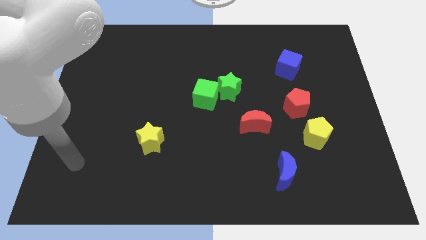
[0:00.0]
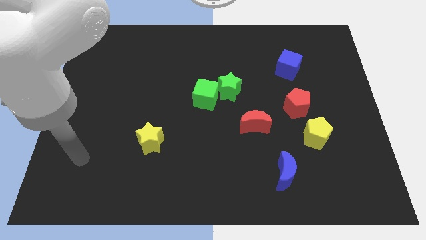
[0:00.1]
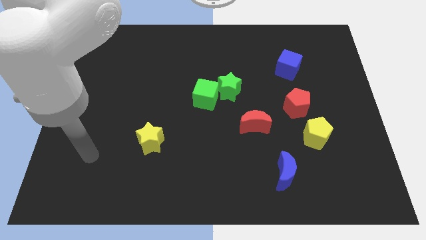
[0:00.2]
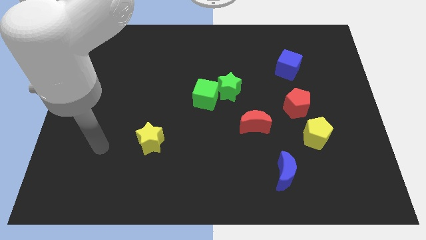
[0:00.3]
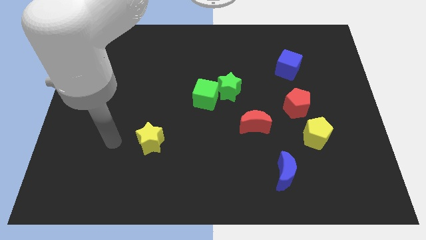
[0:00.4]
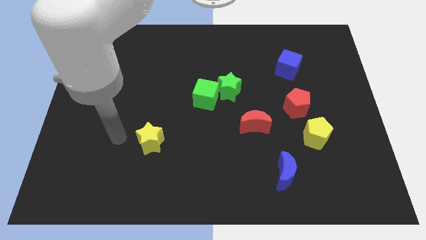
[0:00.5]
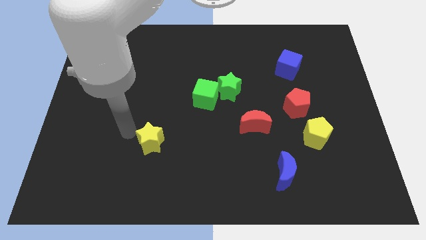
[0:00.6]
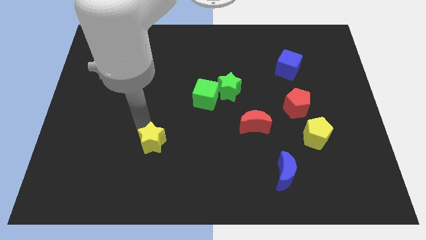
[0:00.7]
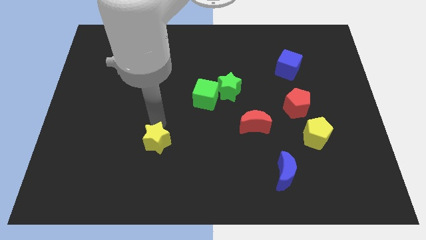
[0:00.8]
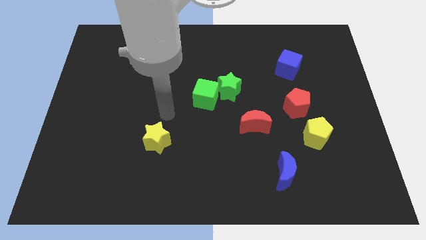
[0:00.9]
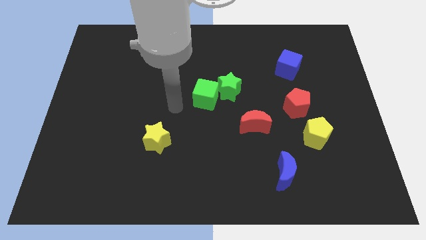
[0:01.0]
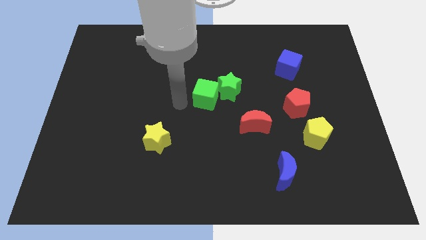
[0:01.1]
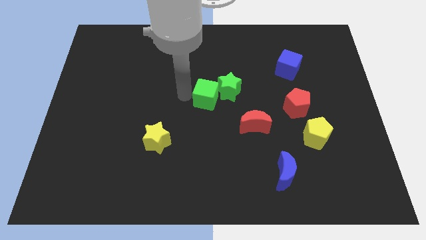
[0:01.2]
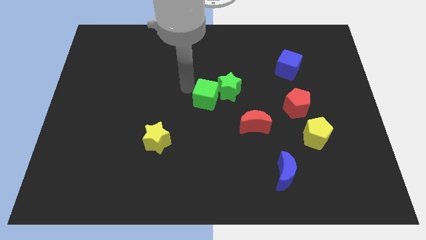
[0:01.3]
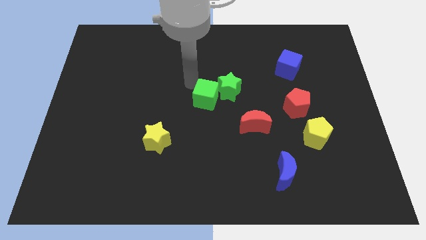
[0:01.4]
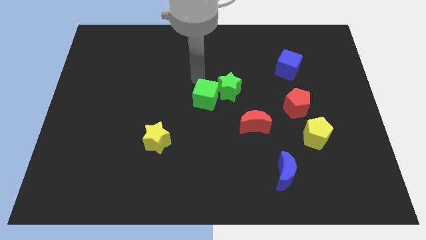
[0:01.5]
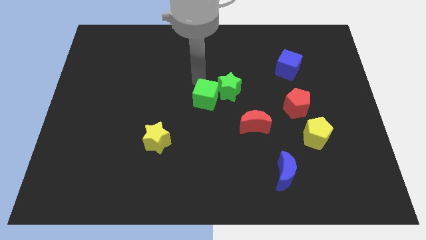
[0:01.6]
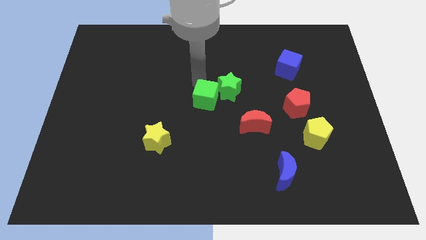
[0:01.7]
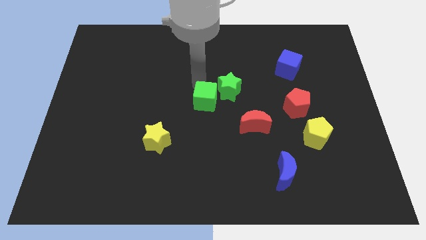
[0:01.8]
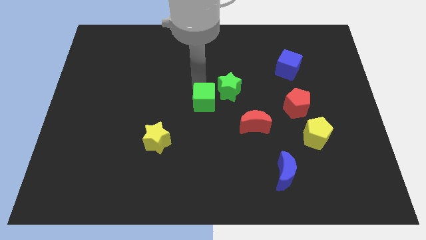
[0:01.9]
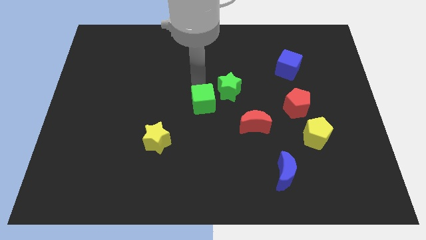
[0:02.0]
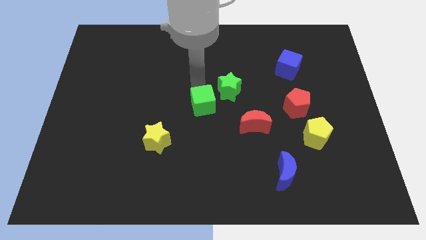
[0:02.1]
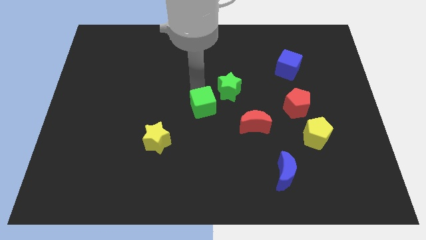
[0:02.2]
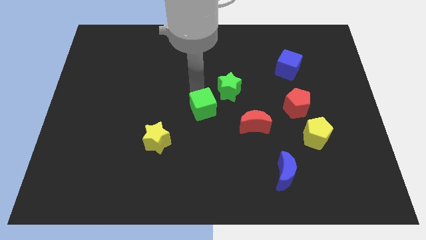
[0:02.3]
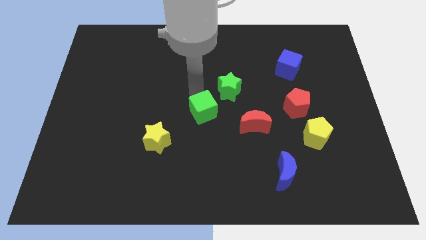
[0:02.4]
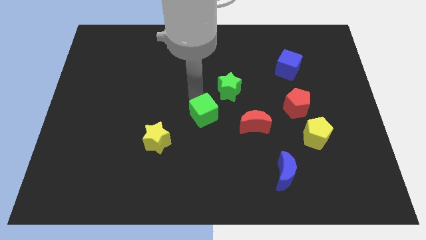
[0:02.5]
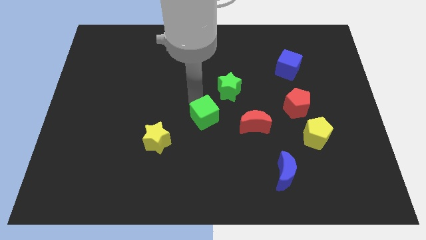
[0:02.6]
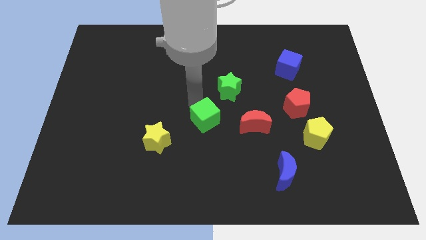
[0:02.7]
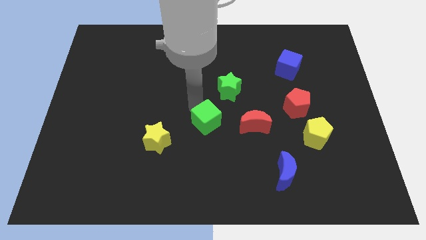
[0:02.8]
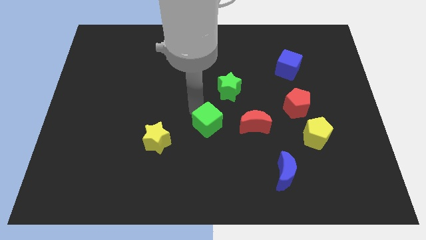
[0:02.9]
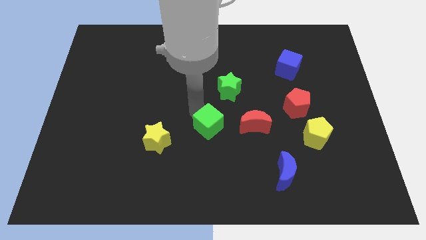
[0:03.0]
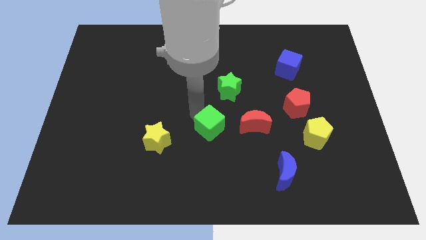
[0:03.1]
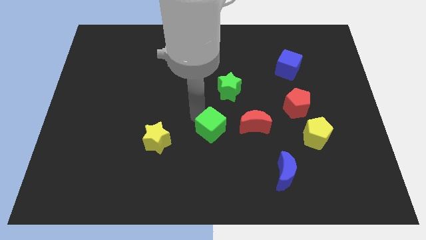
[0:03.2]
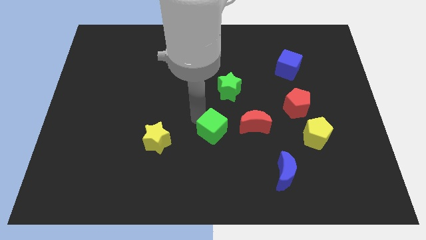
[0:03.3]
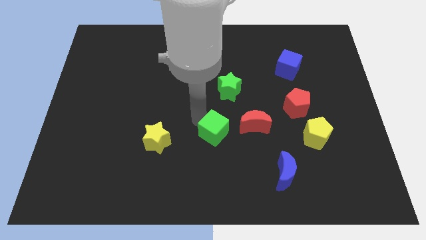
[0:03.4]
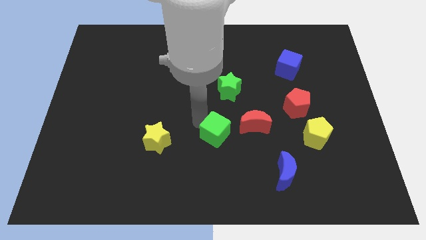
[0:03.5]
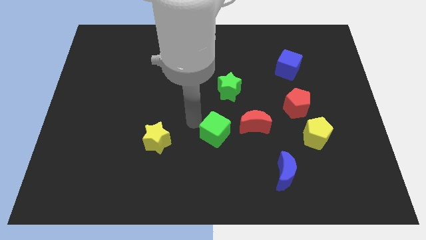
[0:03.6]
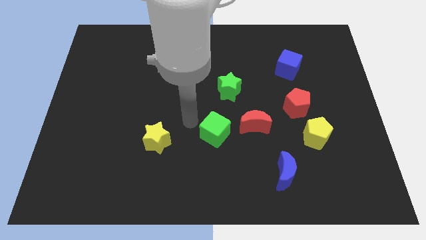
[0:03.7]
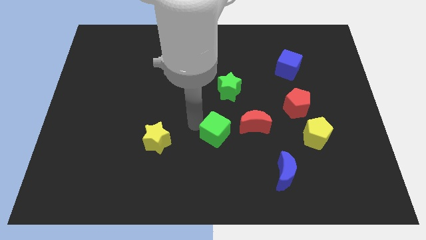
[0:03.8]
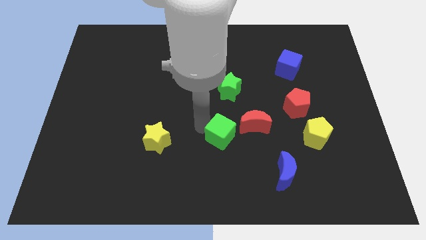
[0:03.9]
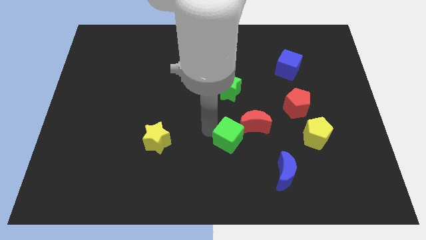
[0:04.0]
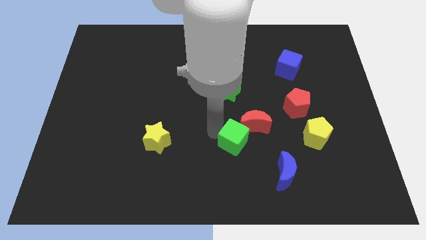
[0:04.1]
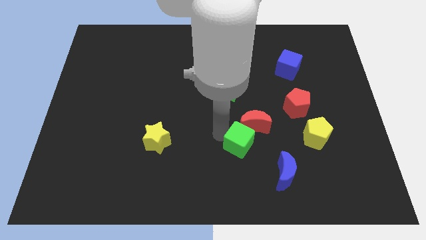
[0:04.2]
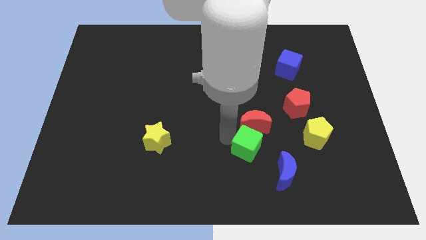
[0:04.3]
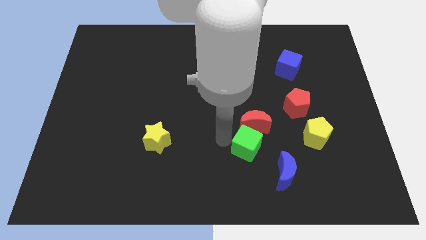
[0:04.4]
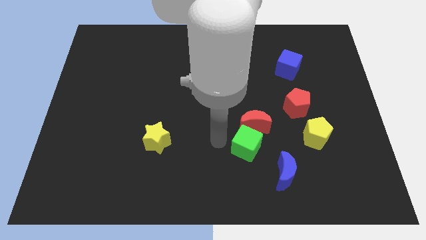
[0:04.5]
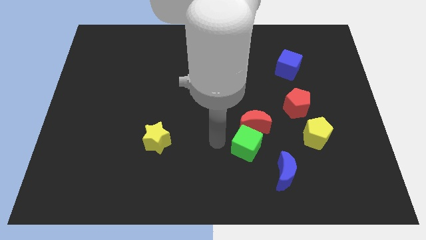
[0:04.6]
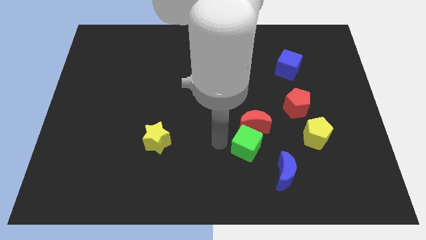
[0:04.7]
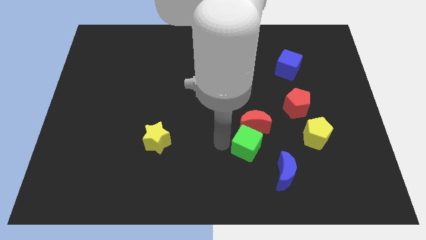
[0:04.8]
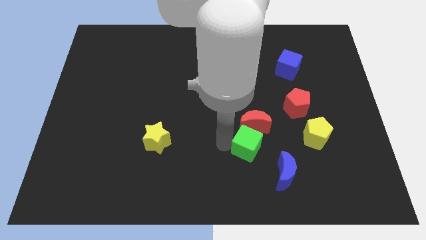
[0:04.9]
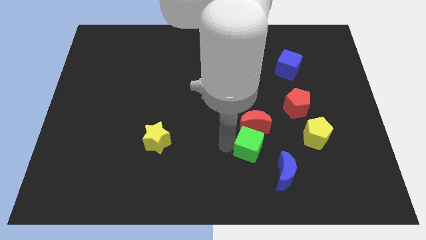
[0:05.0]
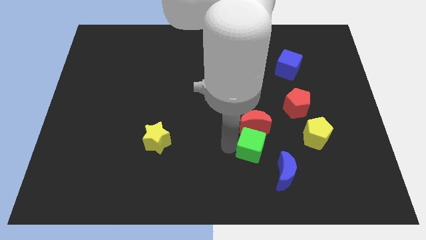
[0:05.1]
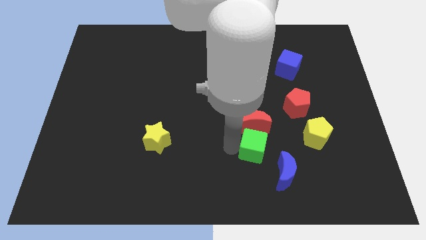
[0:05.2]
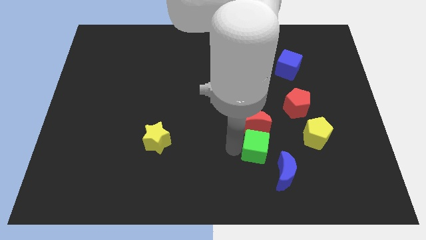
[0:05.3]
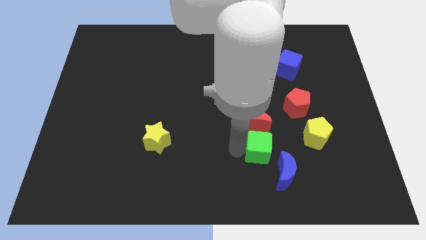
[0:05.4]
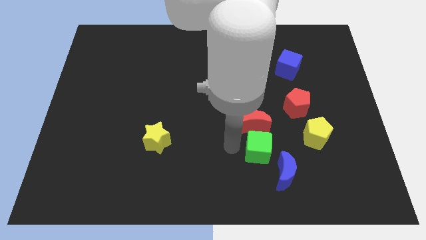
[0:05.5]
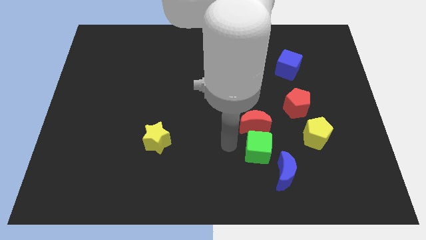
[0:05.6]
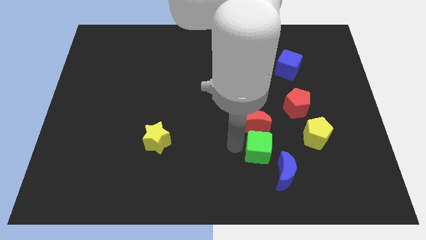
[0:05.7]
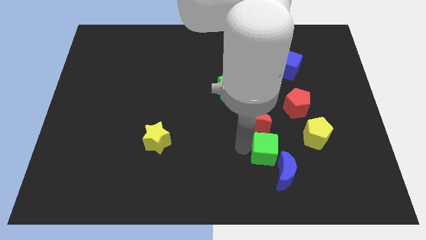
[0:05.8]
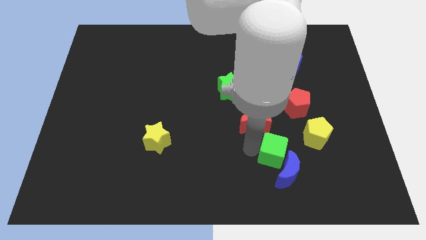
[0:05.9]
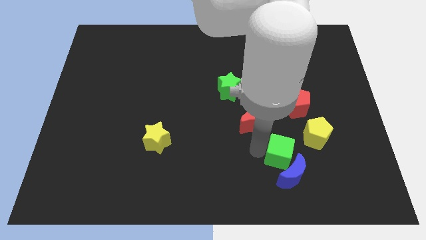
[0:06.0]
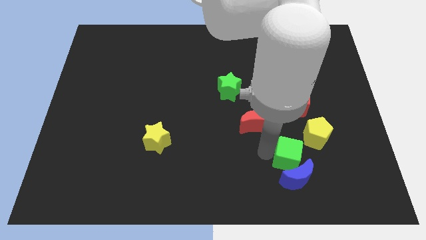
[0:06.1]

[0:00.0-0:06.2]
put the green cube to the top right side of the blue moon

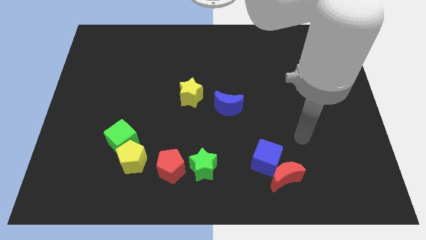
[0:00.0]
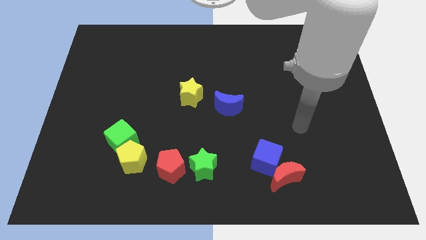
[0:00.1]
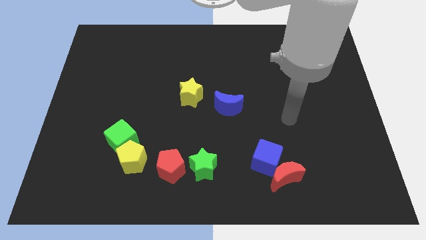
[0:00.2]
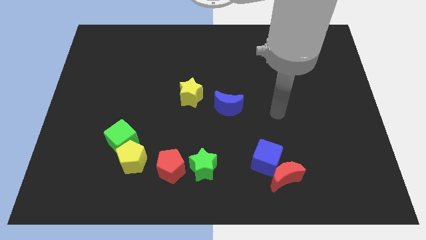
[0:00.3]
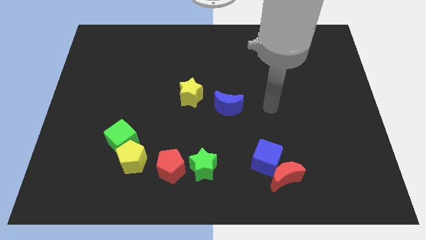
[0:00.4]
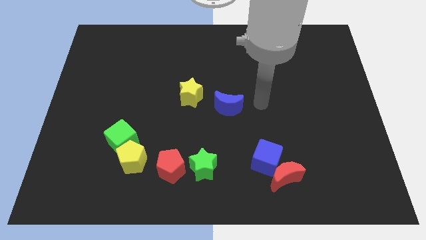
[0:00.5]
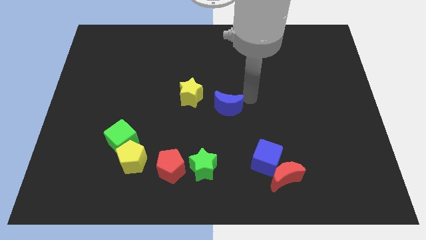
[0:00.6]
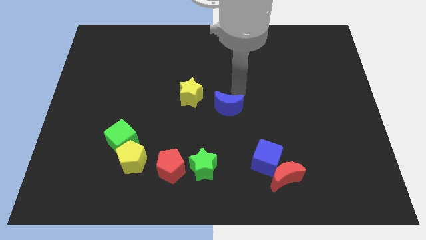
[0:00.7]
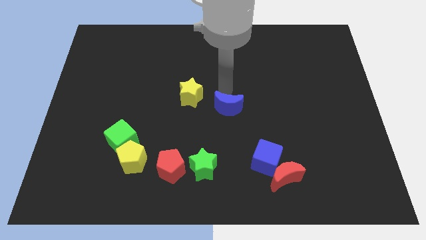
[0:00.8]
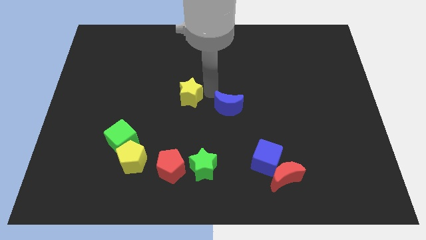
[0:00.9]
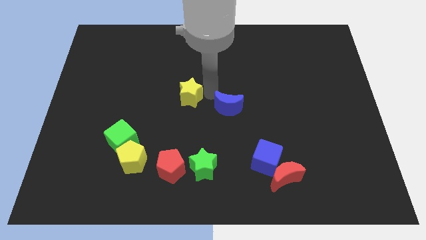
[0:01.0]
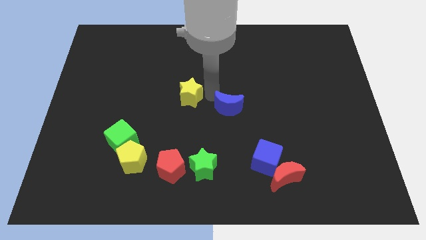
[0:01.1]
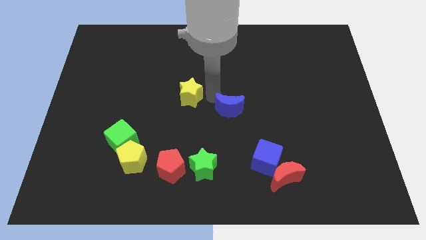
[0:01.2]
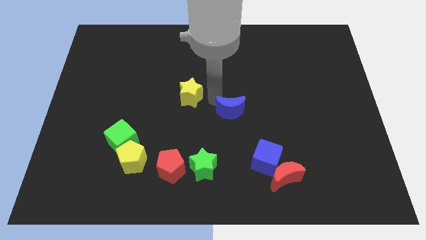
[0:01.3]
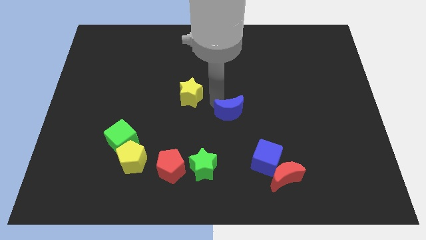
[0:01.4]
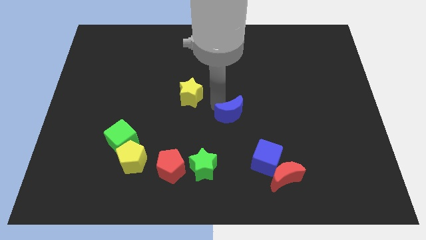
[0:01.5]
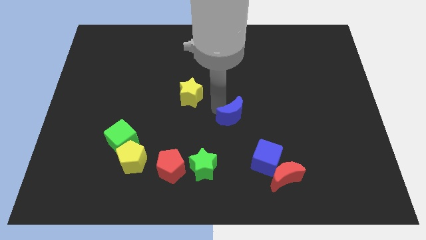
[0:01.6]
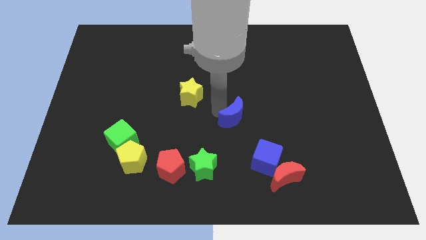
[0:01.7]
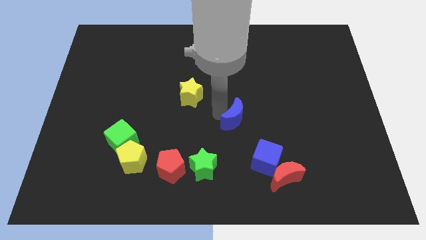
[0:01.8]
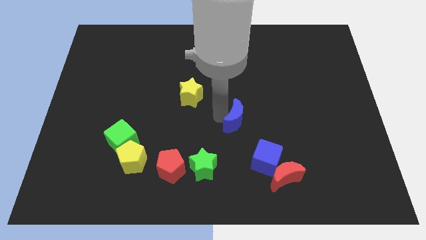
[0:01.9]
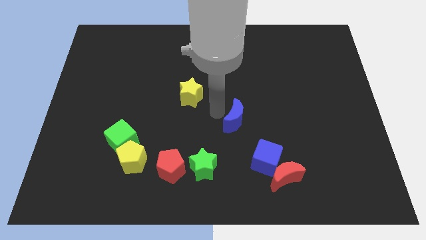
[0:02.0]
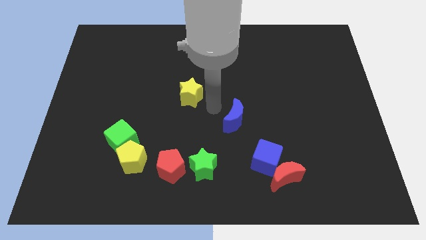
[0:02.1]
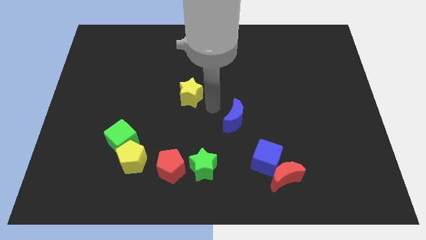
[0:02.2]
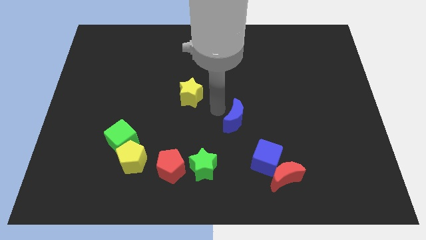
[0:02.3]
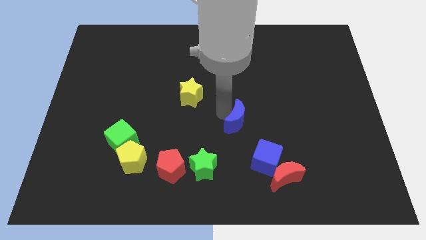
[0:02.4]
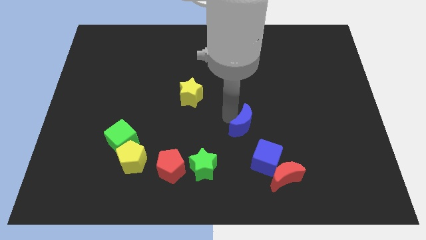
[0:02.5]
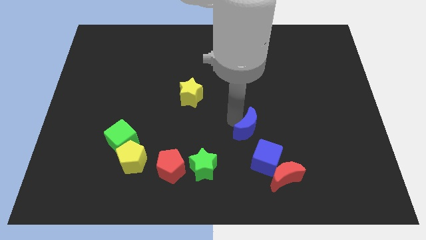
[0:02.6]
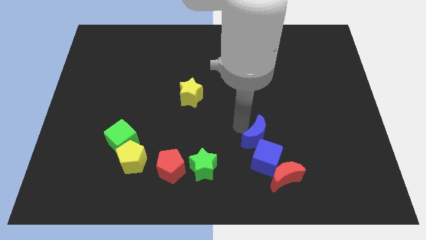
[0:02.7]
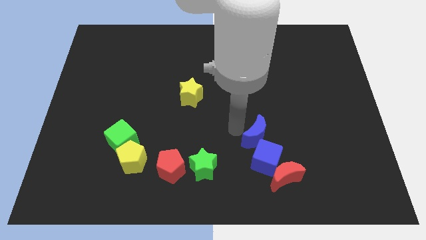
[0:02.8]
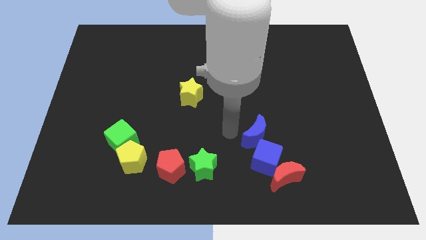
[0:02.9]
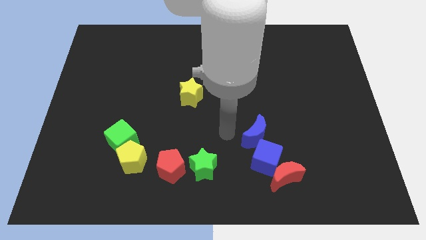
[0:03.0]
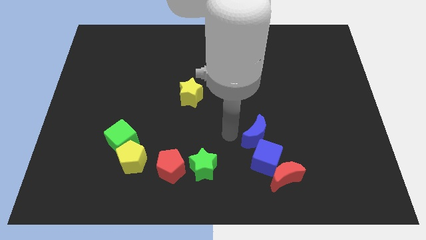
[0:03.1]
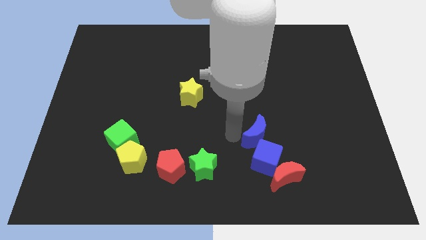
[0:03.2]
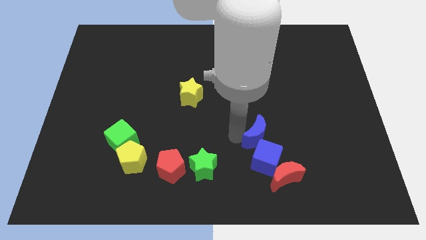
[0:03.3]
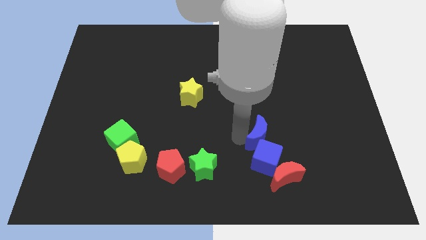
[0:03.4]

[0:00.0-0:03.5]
slide the blue moon to the top right side of the blue cube
